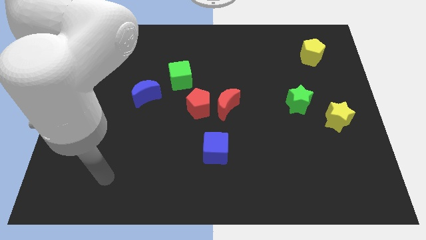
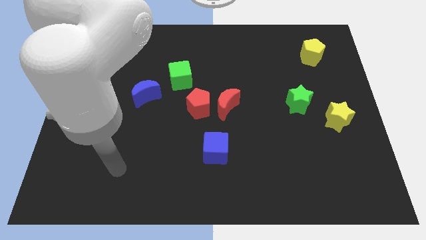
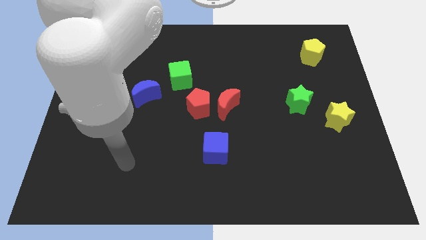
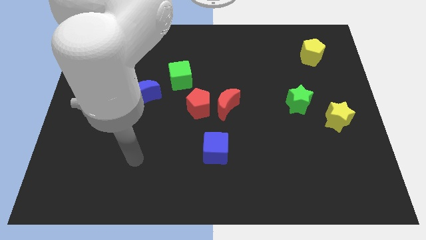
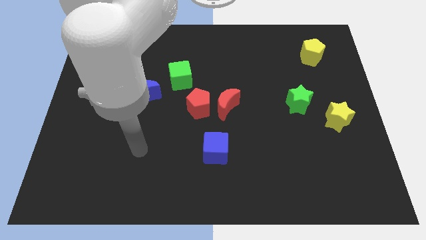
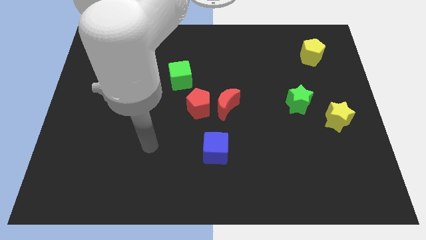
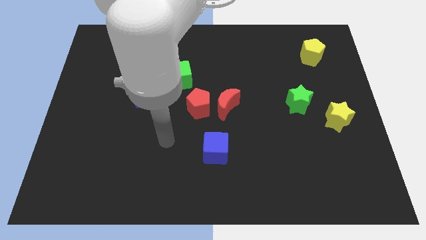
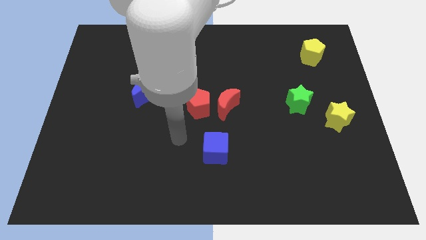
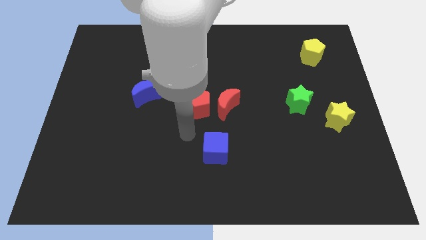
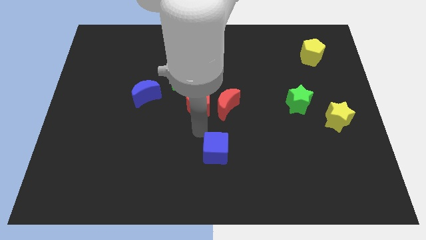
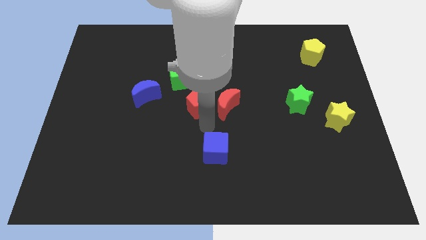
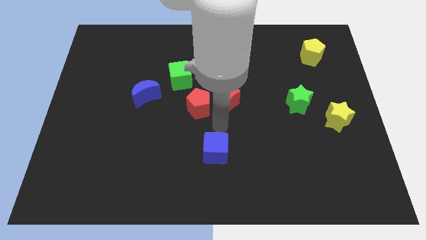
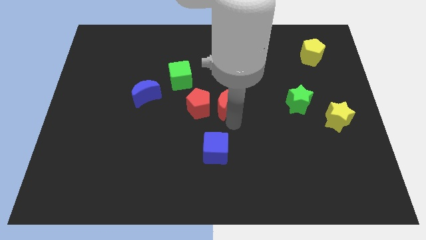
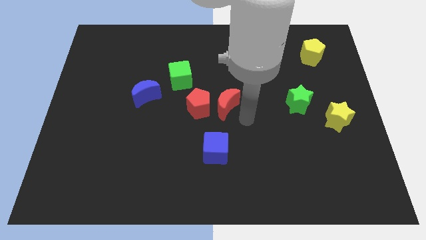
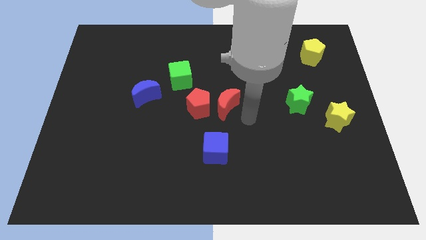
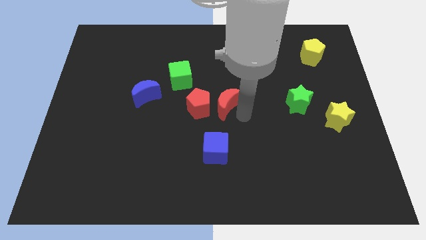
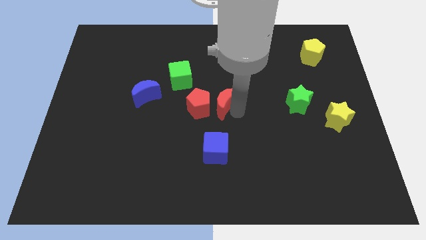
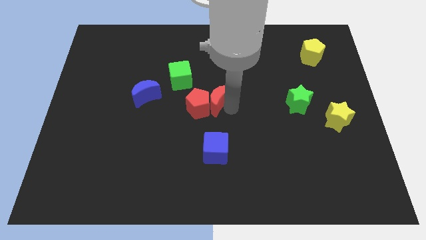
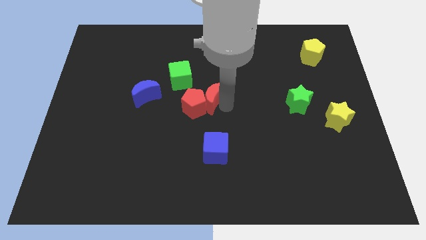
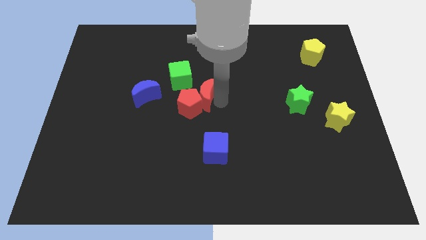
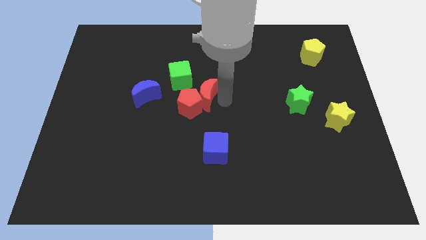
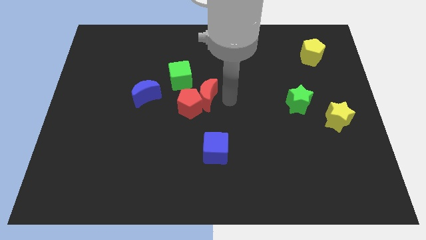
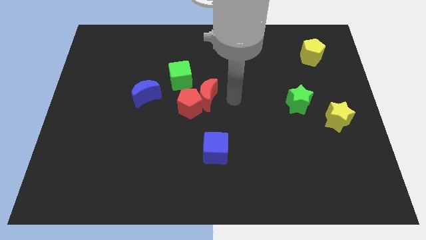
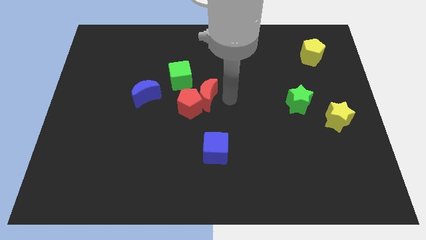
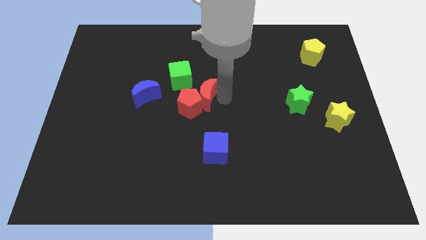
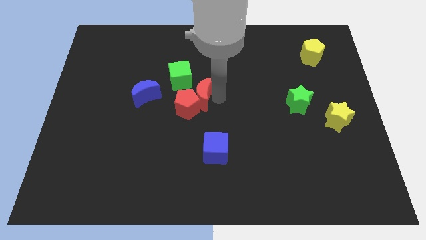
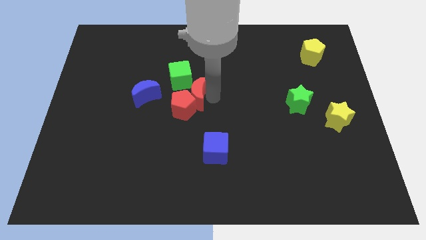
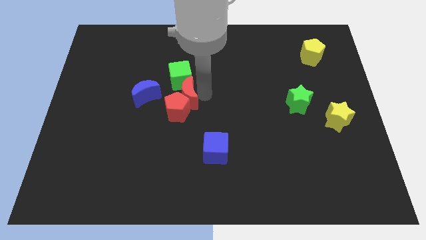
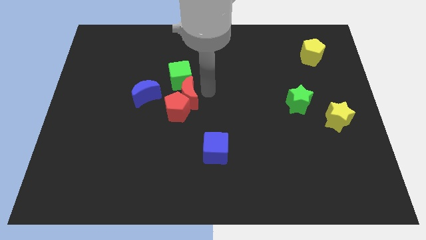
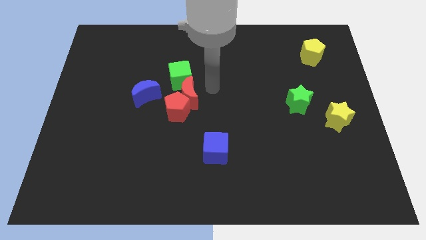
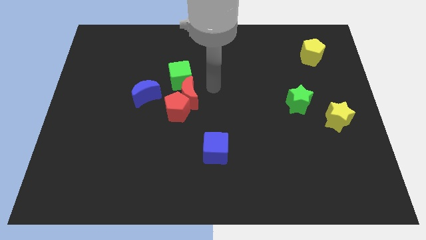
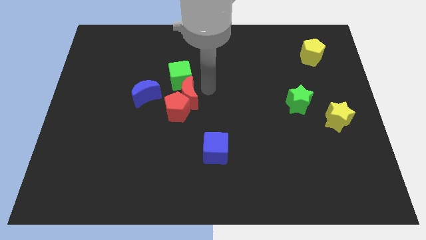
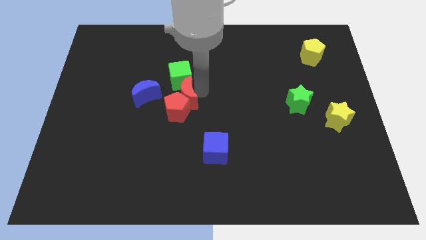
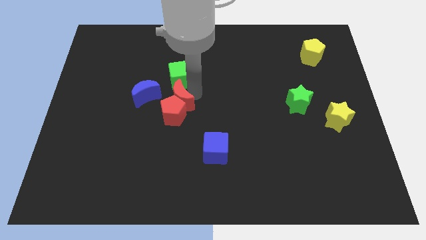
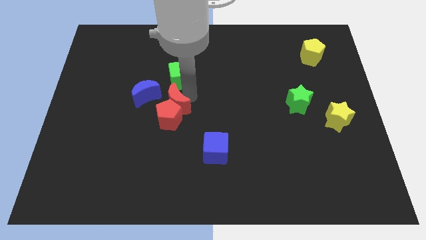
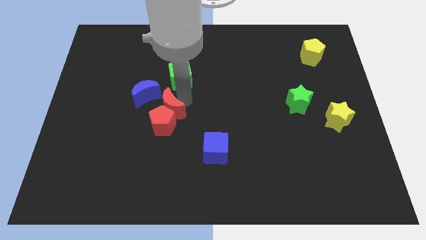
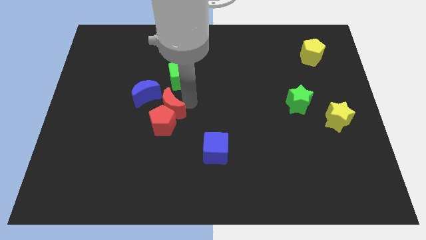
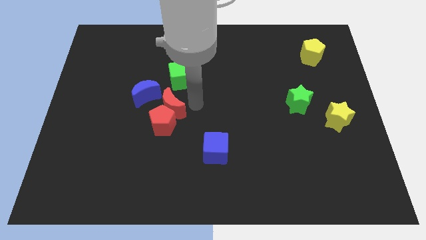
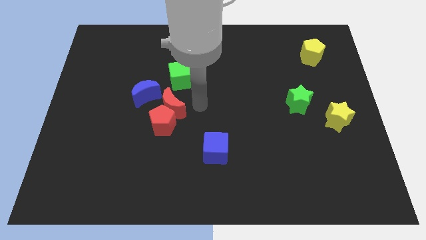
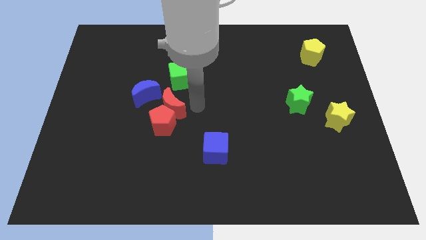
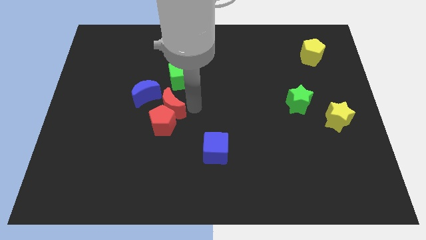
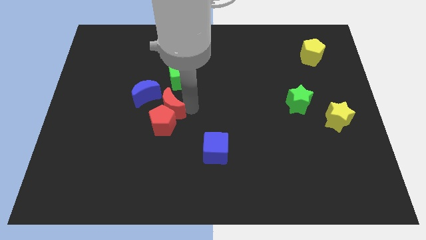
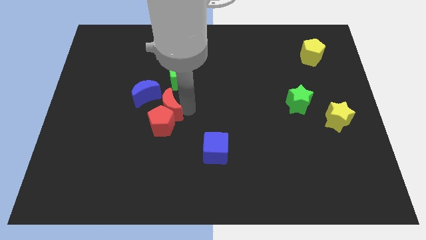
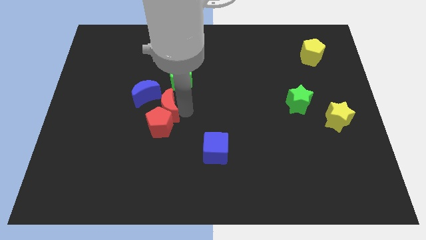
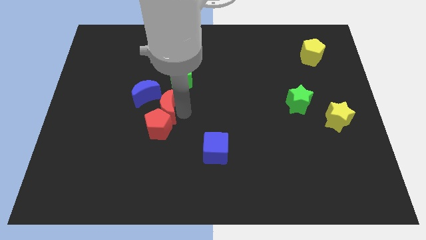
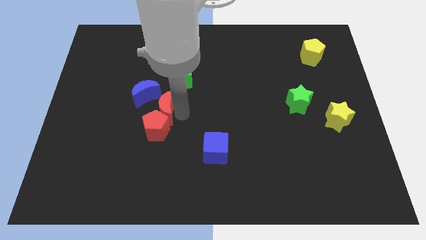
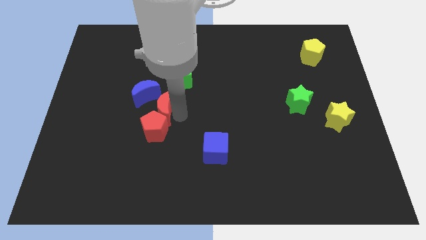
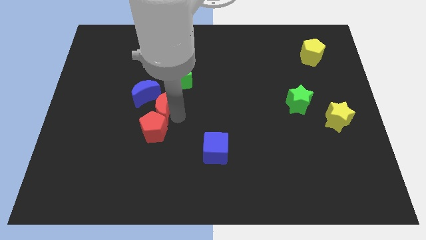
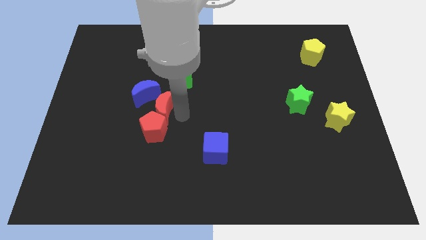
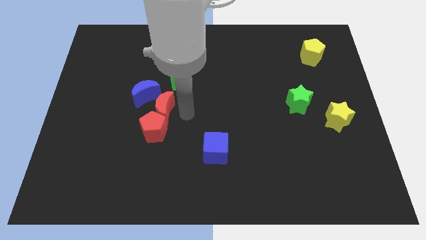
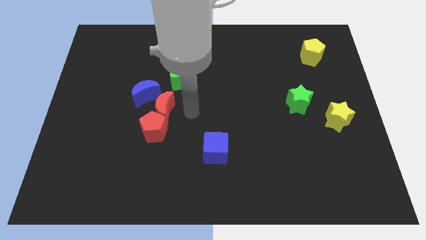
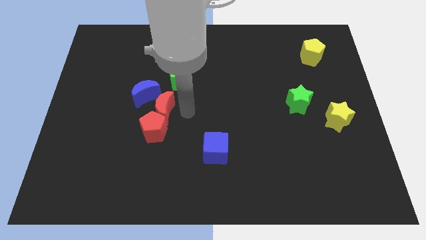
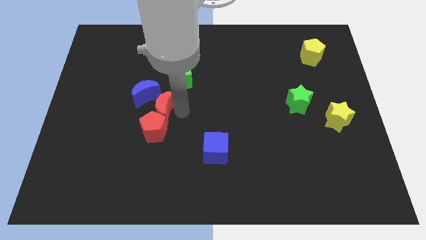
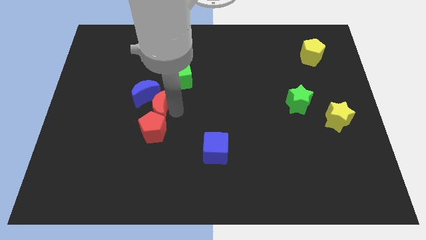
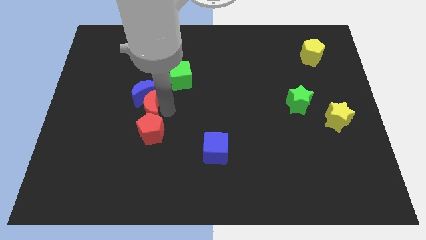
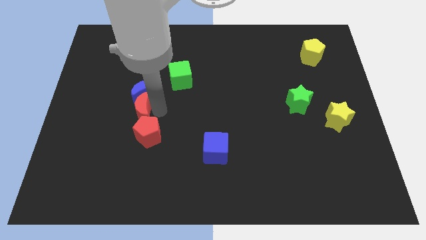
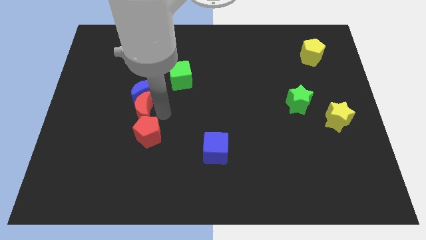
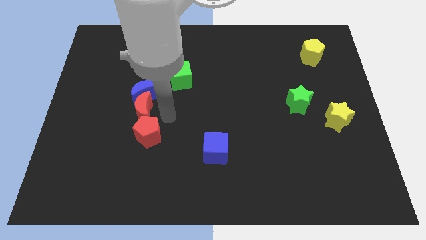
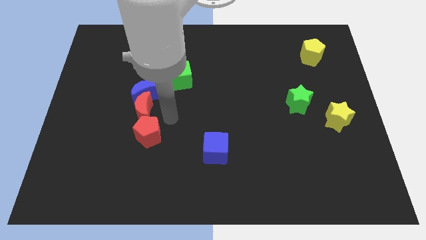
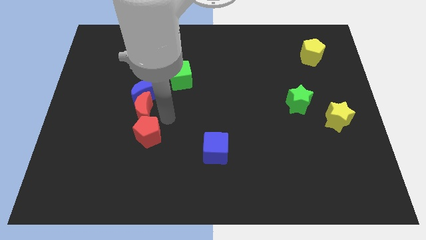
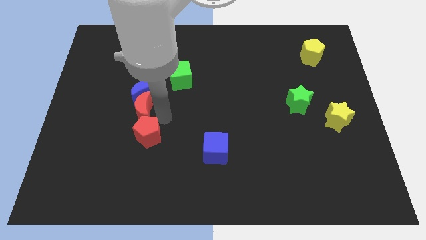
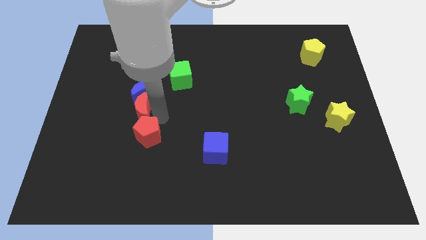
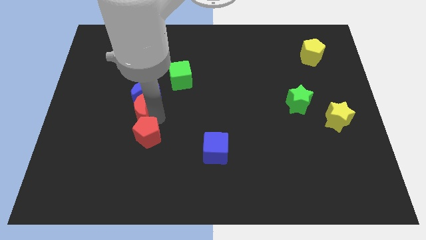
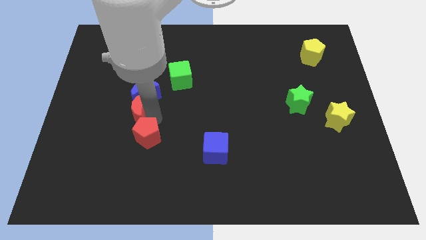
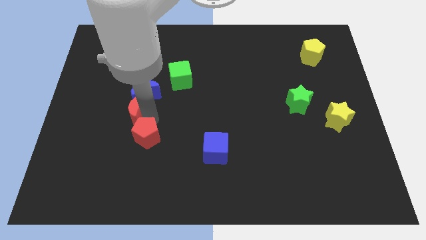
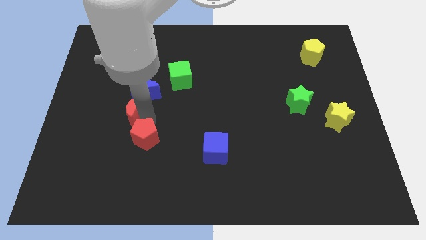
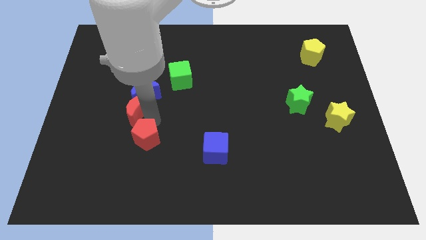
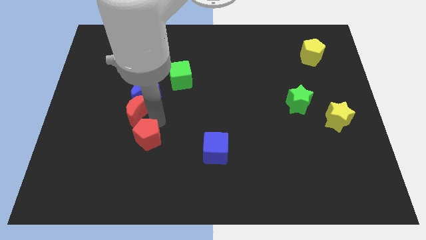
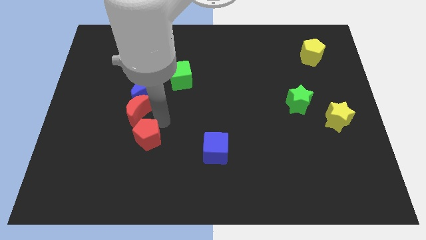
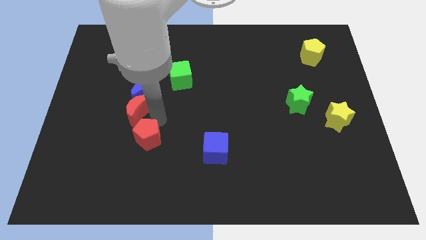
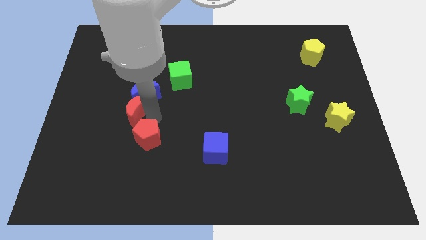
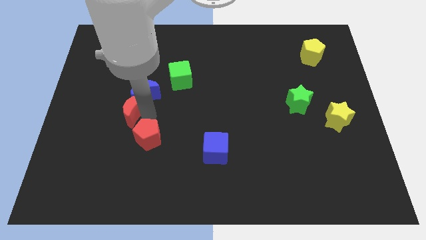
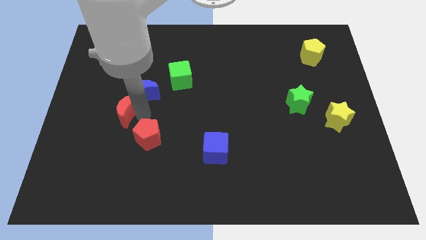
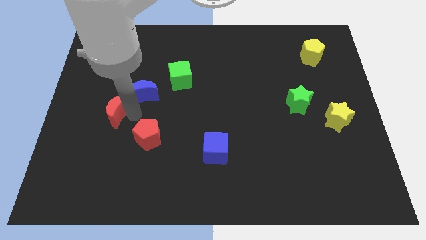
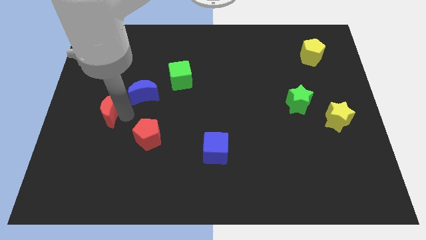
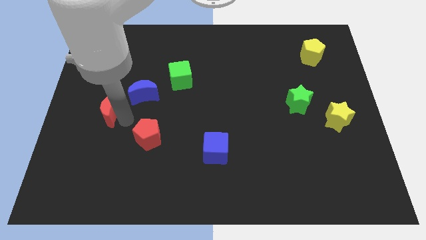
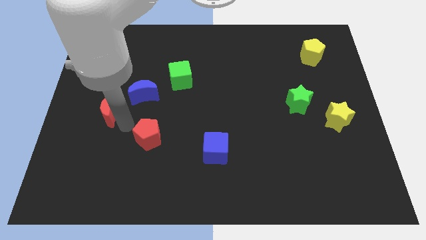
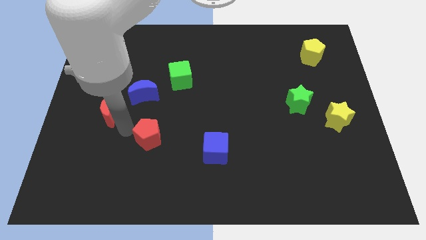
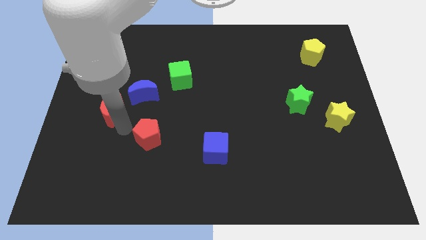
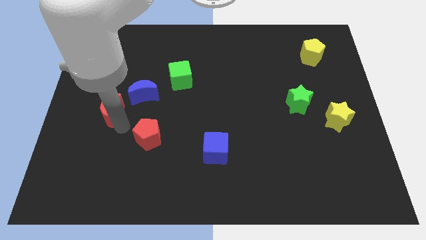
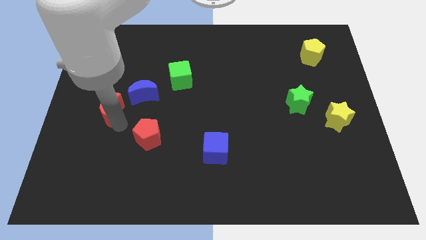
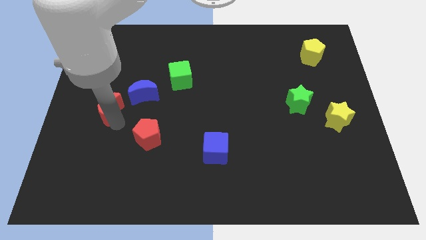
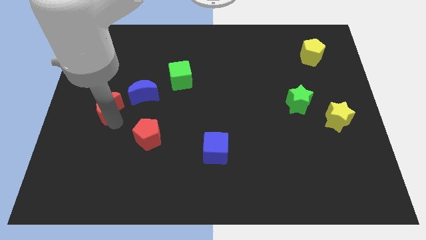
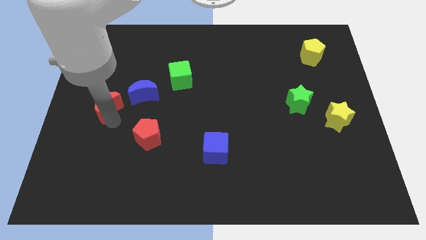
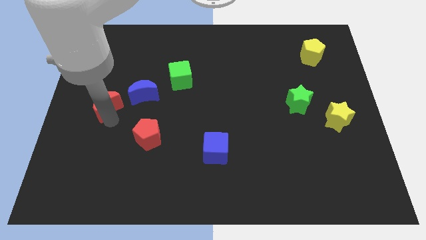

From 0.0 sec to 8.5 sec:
slide the red moon to the left side of the board
